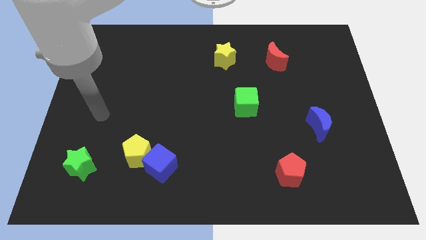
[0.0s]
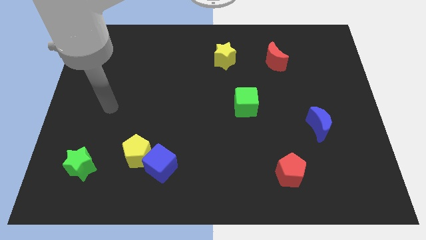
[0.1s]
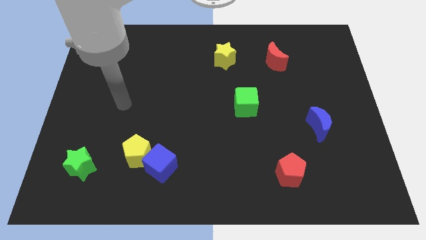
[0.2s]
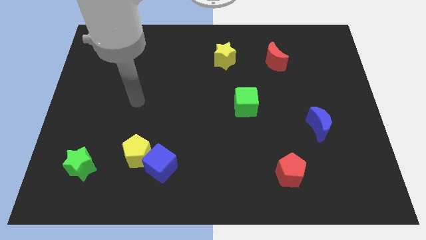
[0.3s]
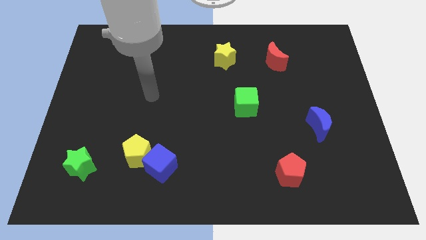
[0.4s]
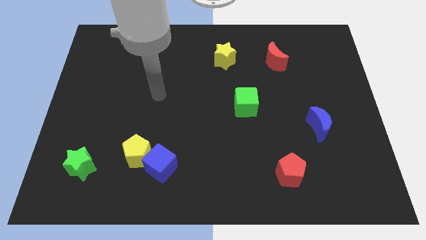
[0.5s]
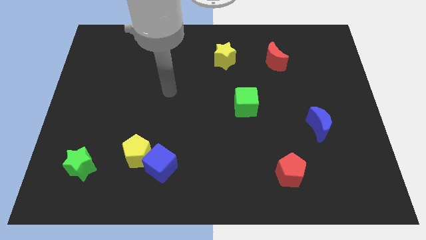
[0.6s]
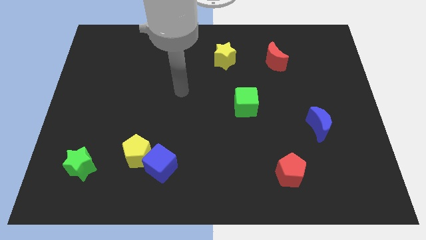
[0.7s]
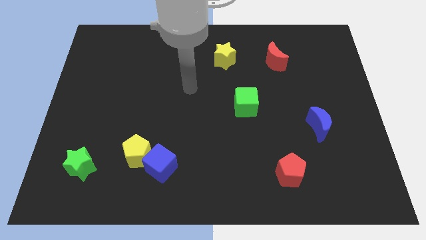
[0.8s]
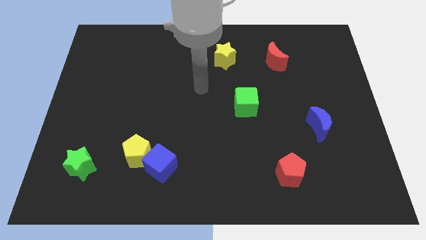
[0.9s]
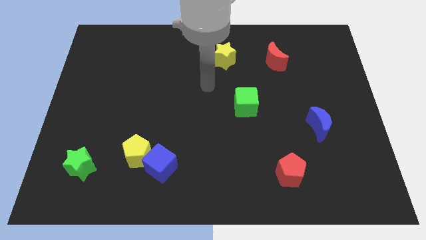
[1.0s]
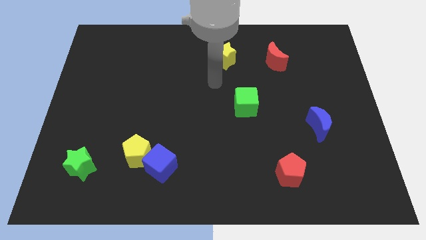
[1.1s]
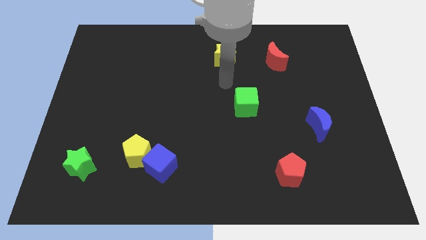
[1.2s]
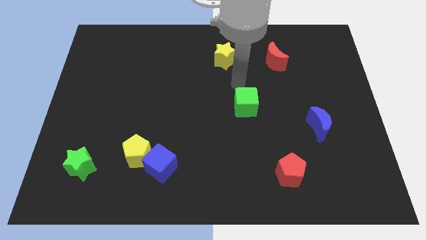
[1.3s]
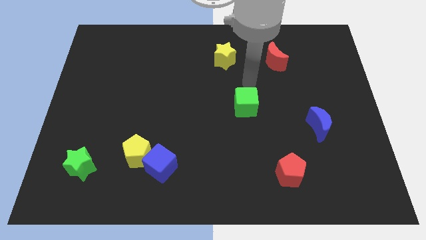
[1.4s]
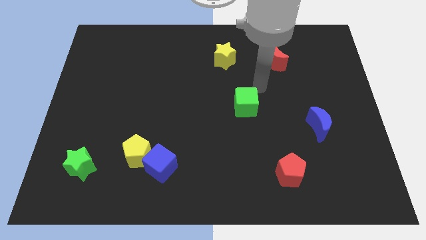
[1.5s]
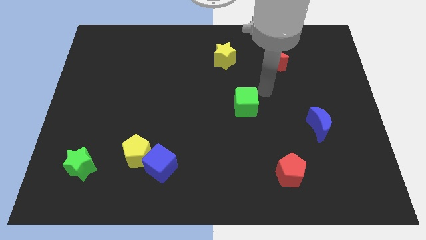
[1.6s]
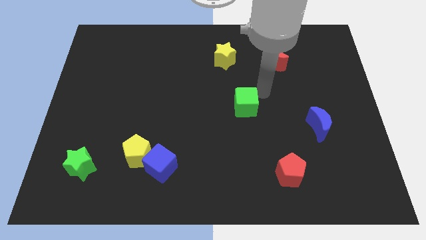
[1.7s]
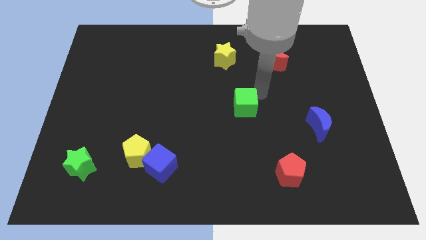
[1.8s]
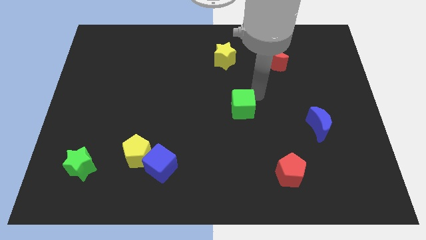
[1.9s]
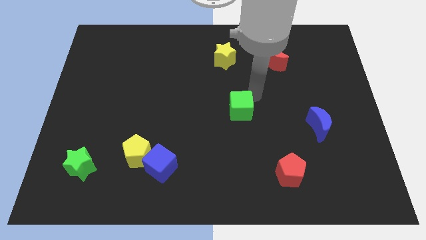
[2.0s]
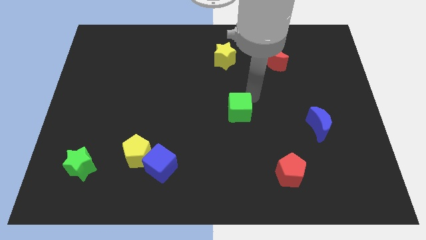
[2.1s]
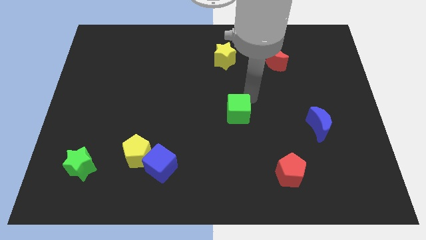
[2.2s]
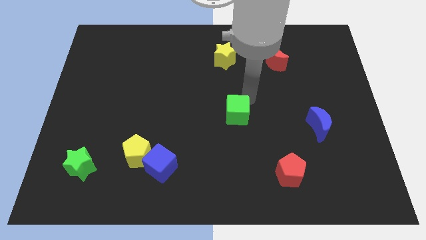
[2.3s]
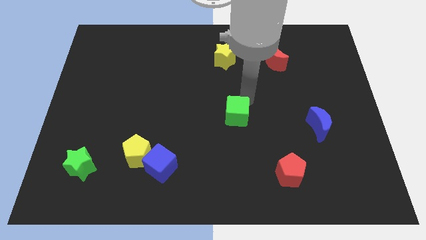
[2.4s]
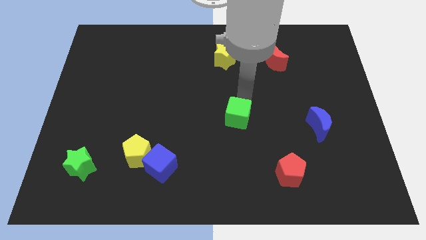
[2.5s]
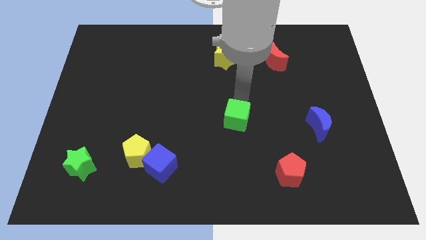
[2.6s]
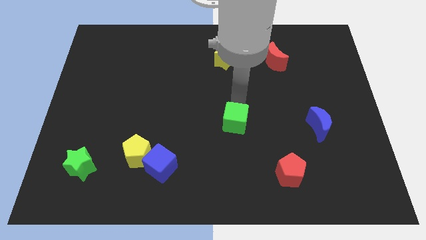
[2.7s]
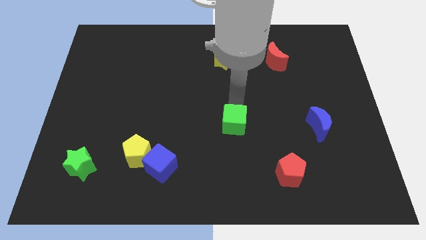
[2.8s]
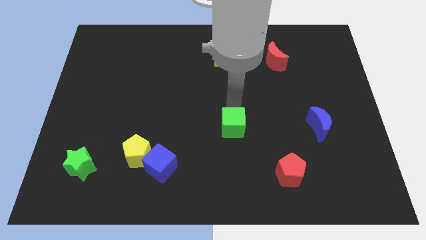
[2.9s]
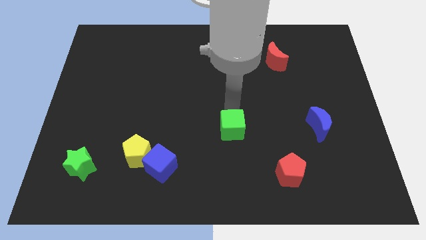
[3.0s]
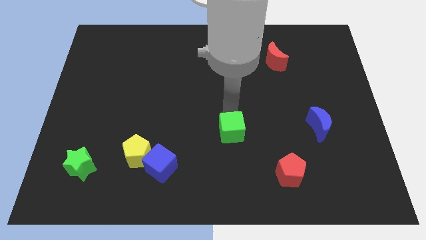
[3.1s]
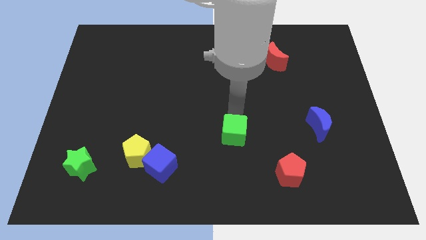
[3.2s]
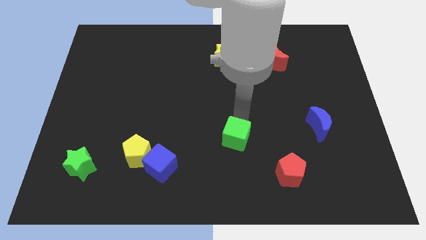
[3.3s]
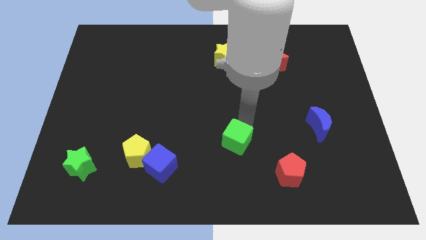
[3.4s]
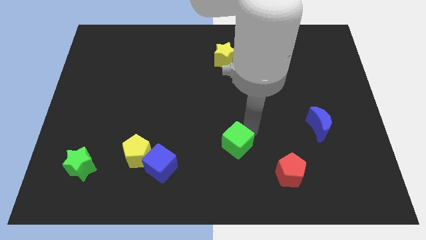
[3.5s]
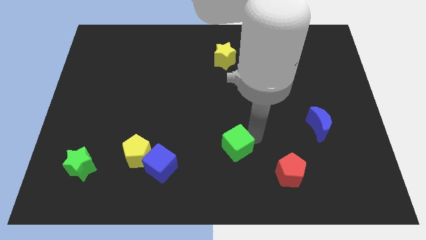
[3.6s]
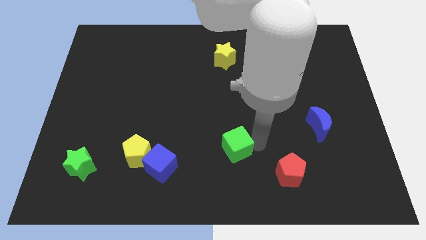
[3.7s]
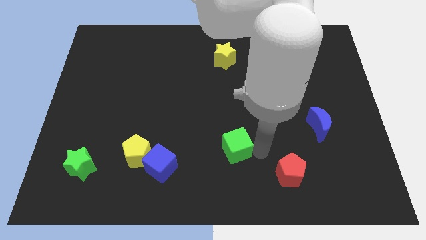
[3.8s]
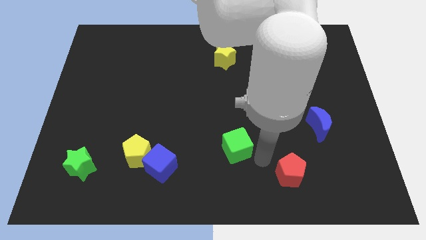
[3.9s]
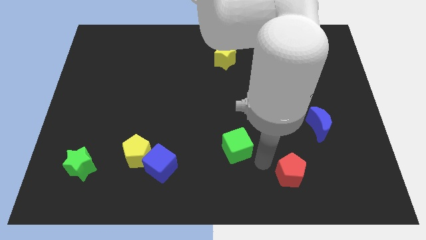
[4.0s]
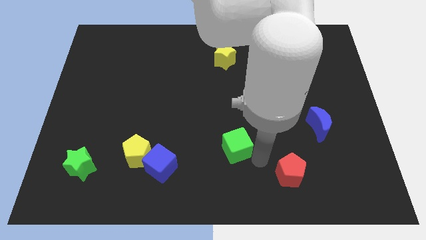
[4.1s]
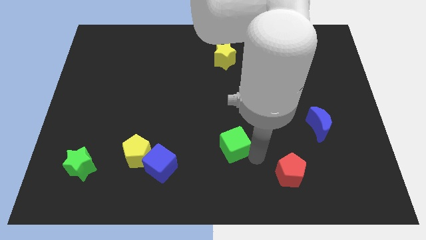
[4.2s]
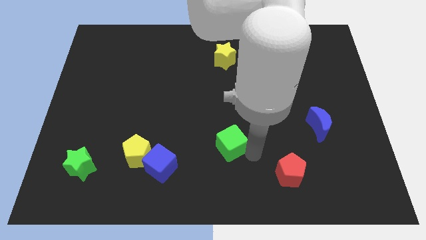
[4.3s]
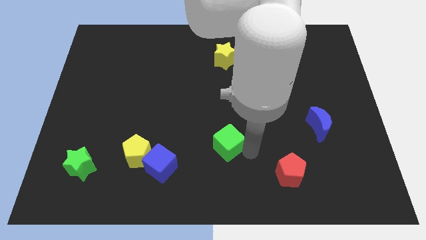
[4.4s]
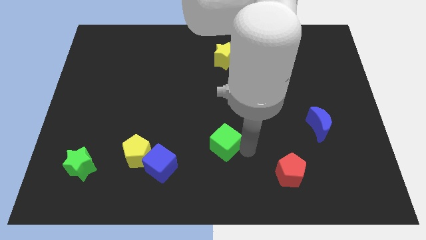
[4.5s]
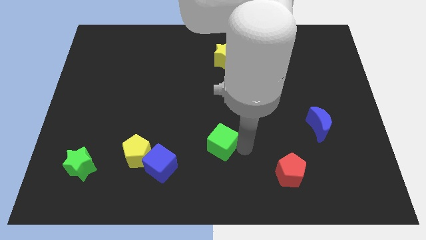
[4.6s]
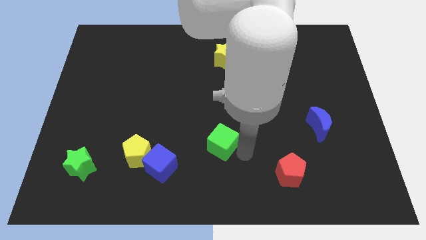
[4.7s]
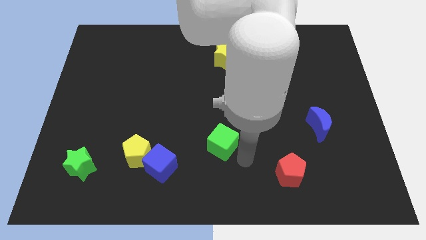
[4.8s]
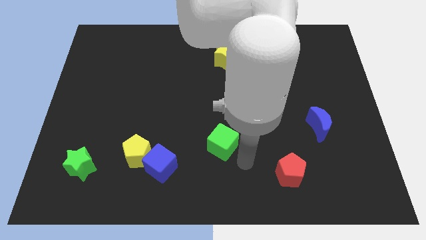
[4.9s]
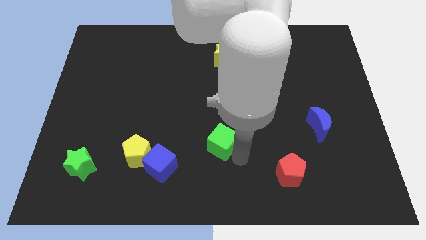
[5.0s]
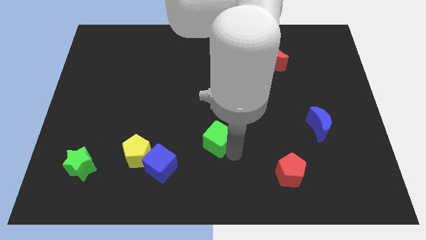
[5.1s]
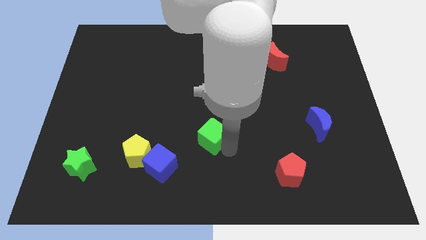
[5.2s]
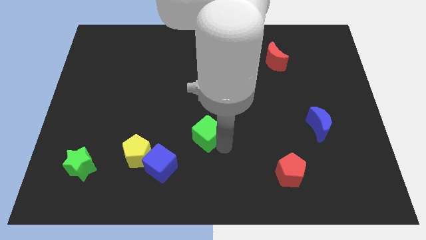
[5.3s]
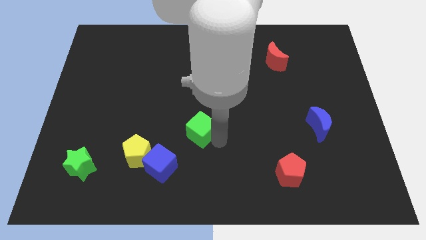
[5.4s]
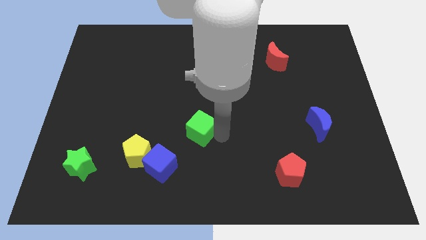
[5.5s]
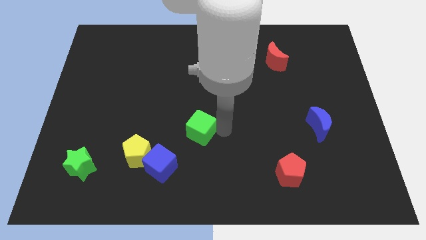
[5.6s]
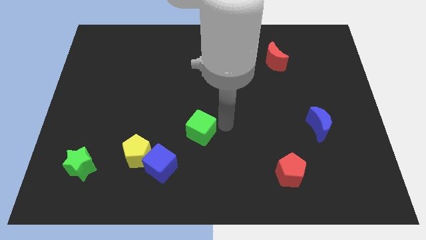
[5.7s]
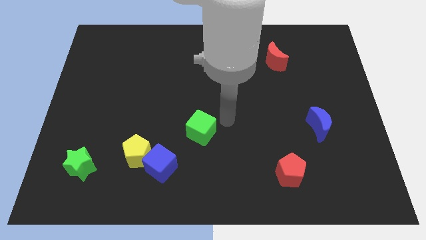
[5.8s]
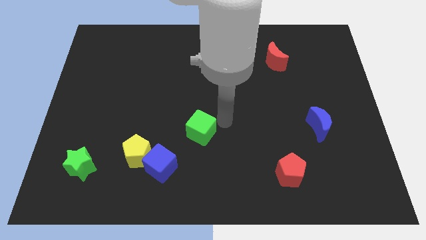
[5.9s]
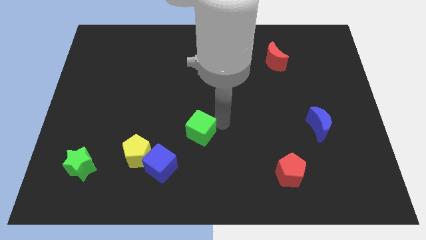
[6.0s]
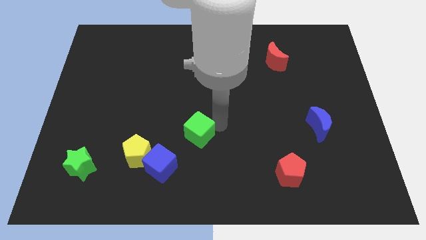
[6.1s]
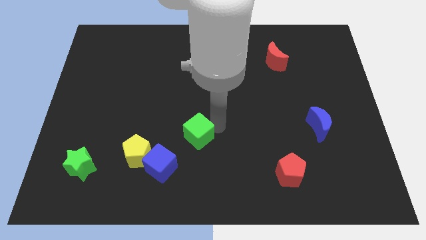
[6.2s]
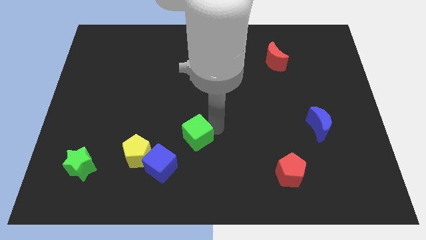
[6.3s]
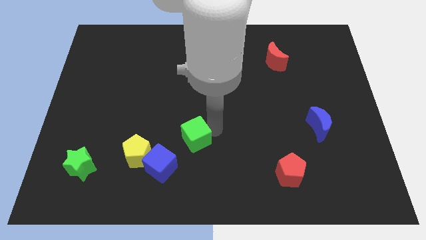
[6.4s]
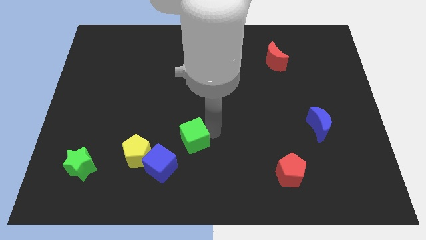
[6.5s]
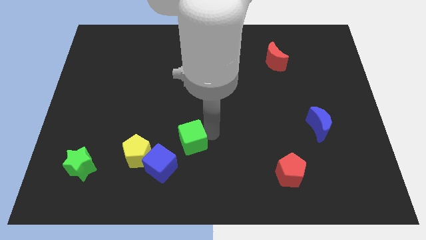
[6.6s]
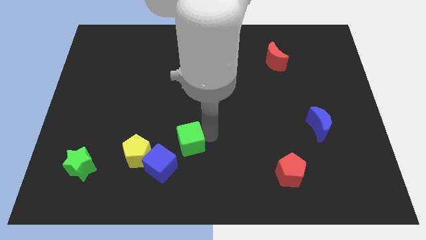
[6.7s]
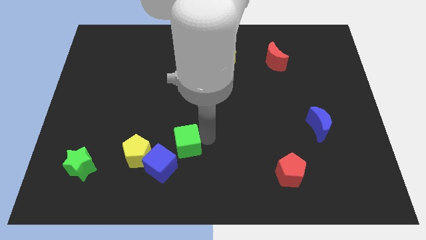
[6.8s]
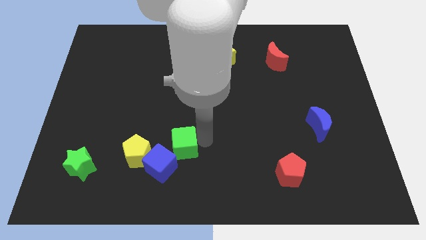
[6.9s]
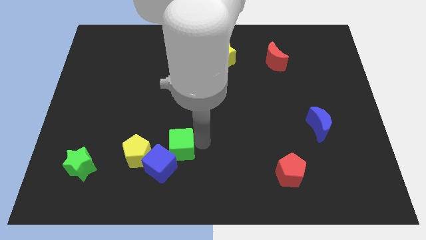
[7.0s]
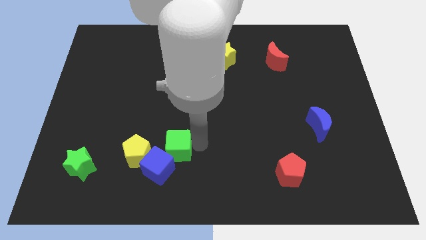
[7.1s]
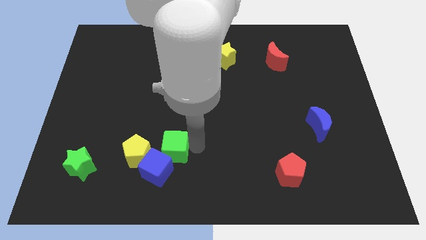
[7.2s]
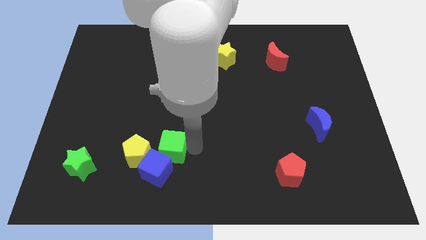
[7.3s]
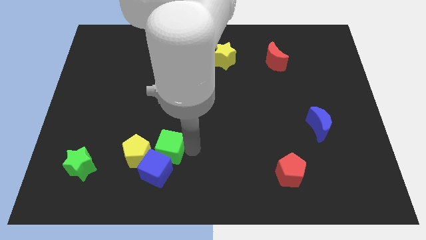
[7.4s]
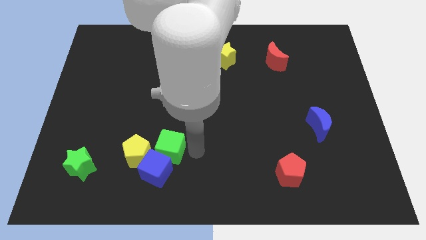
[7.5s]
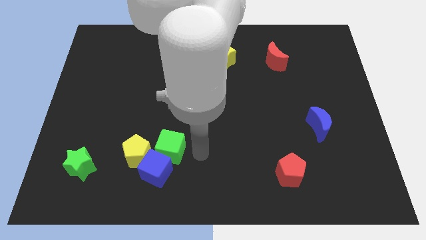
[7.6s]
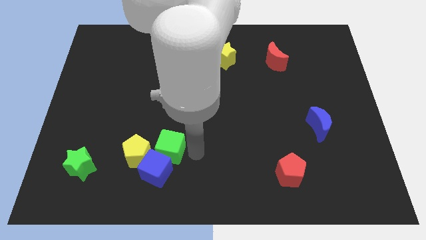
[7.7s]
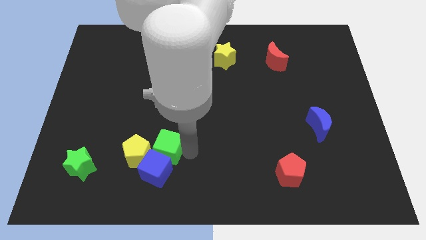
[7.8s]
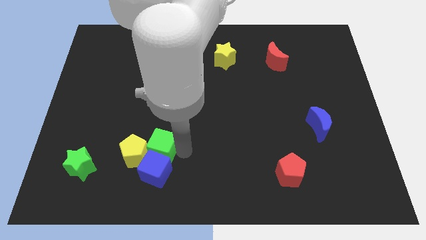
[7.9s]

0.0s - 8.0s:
slide the green cube close to the yellow pentagon
